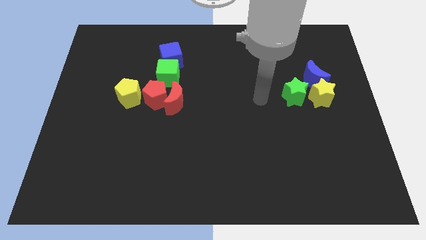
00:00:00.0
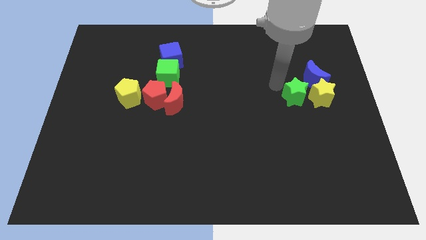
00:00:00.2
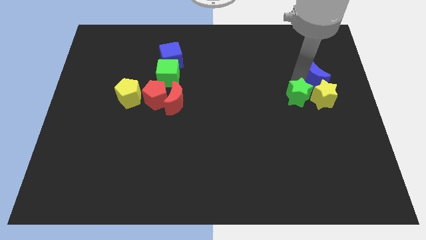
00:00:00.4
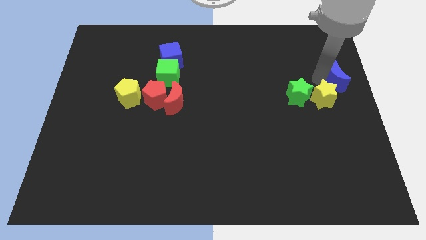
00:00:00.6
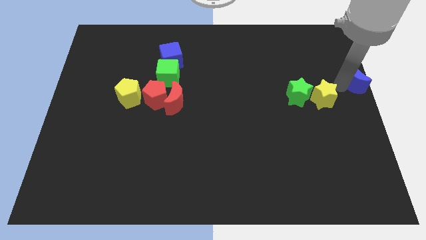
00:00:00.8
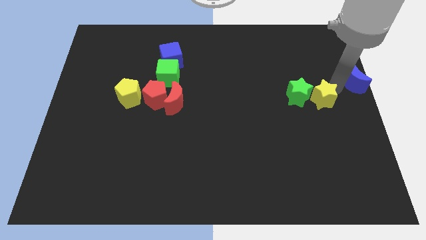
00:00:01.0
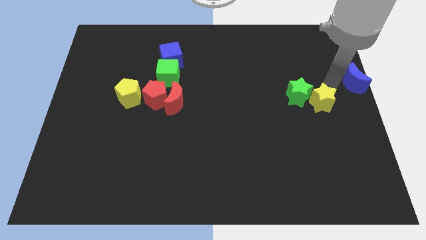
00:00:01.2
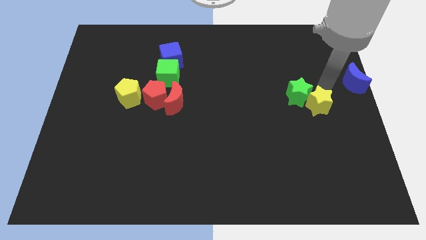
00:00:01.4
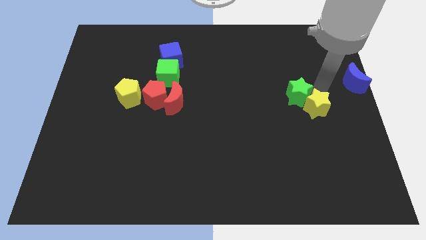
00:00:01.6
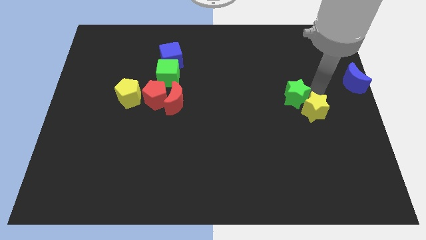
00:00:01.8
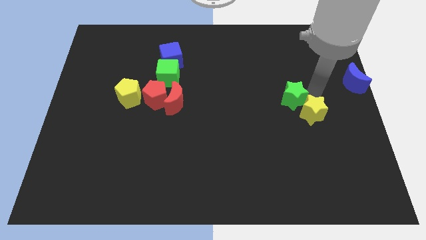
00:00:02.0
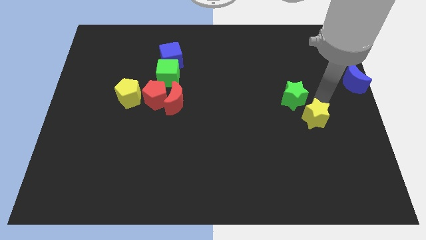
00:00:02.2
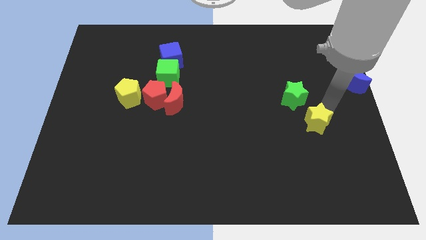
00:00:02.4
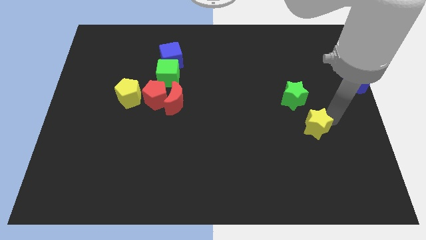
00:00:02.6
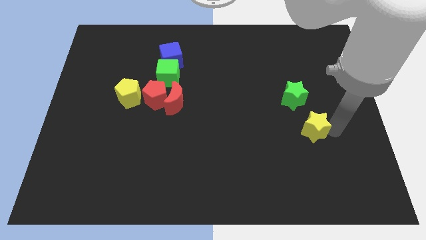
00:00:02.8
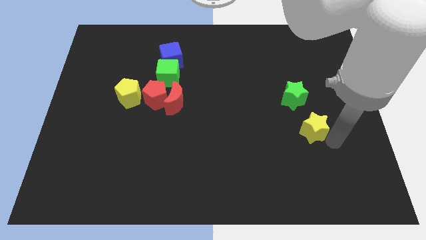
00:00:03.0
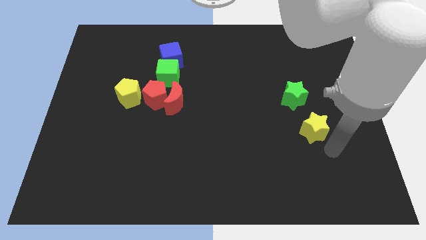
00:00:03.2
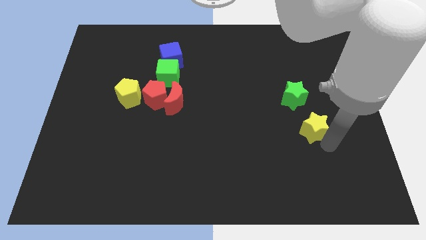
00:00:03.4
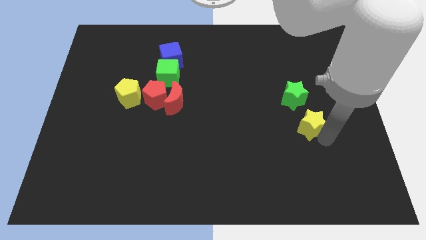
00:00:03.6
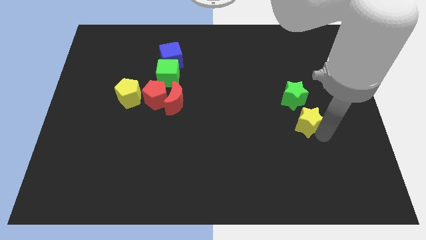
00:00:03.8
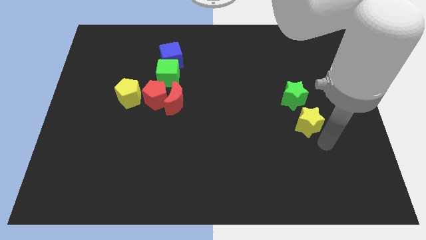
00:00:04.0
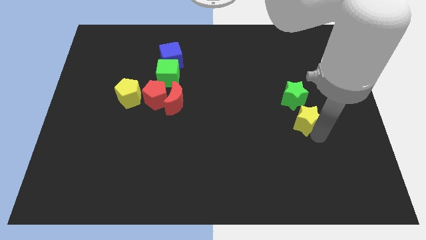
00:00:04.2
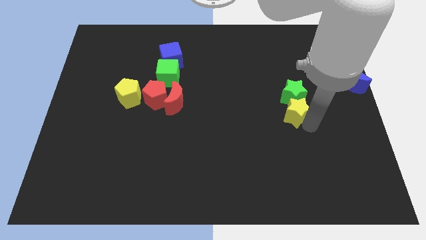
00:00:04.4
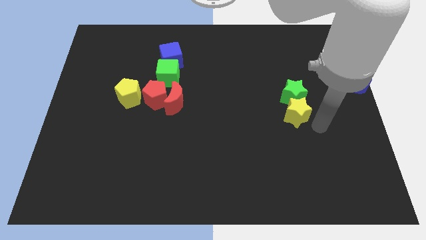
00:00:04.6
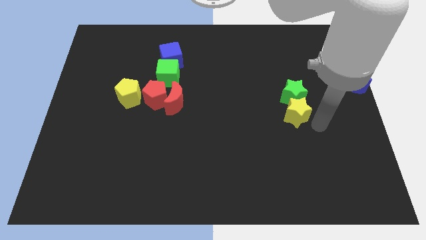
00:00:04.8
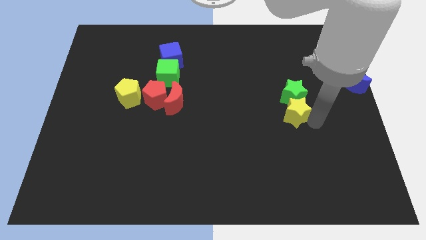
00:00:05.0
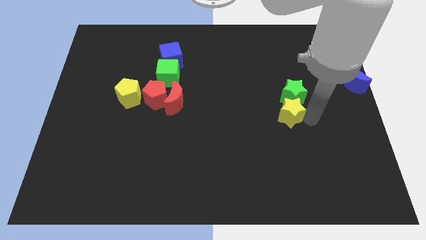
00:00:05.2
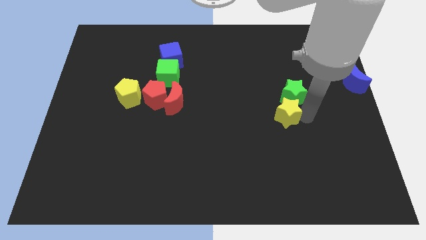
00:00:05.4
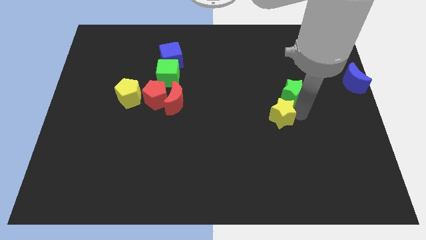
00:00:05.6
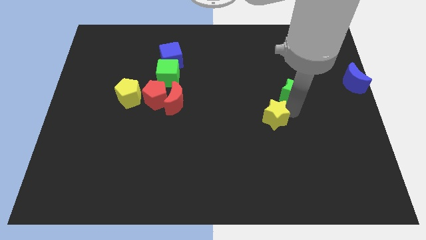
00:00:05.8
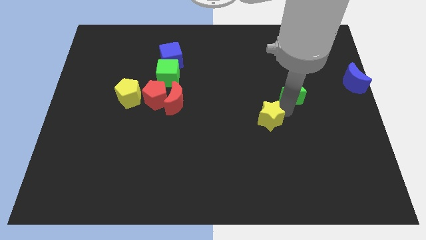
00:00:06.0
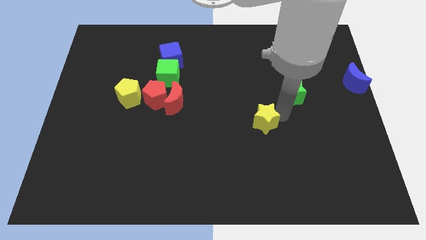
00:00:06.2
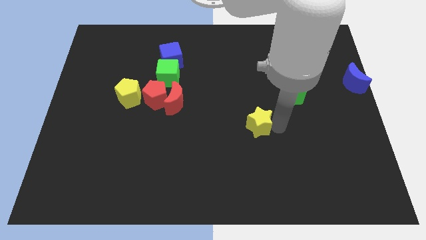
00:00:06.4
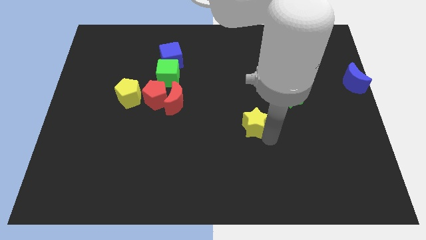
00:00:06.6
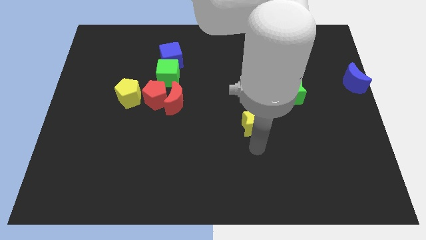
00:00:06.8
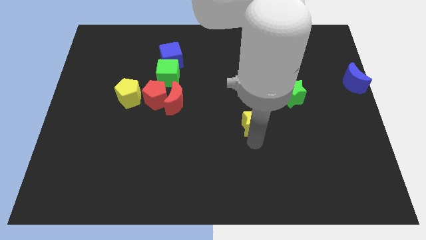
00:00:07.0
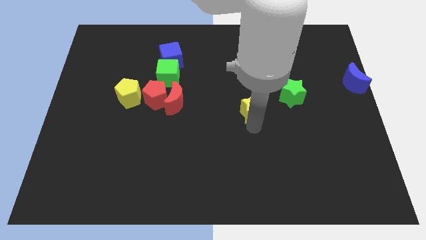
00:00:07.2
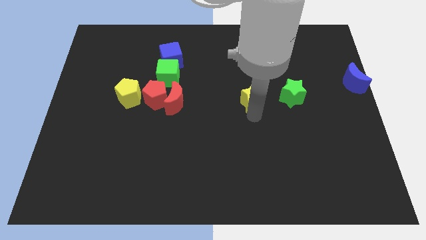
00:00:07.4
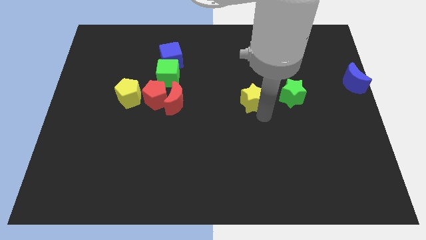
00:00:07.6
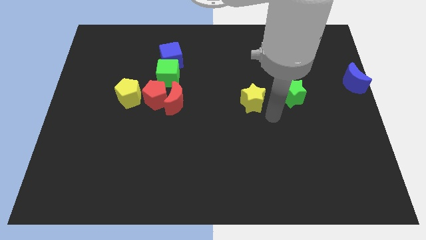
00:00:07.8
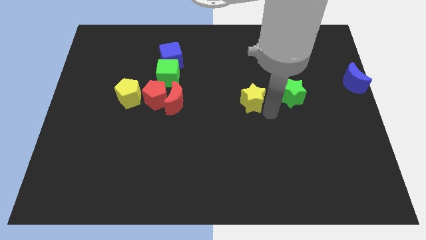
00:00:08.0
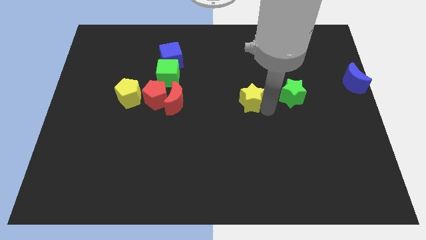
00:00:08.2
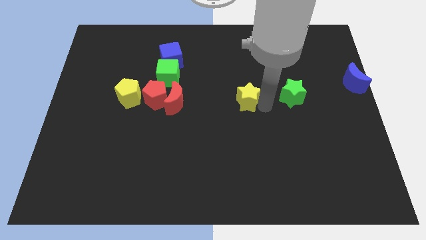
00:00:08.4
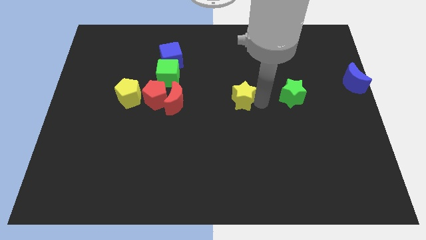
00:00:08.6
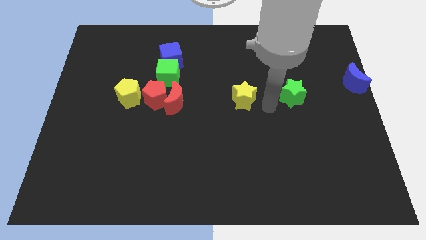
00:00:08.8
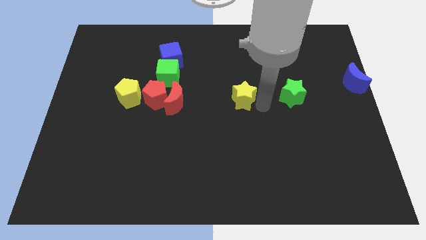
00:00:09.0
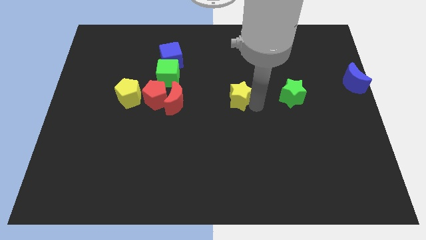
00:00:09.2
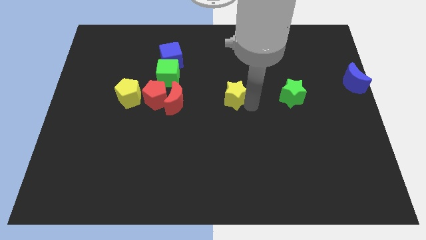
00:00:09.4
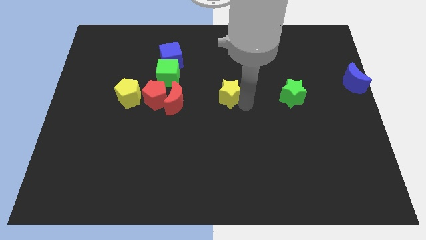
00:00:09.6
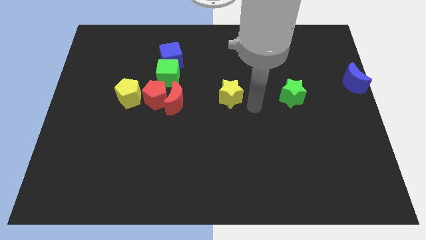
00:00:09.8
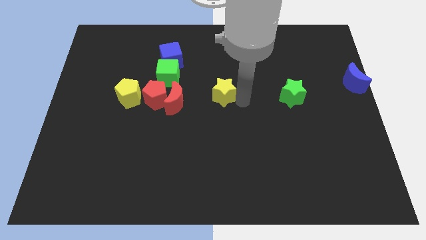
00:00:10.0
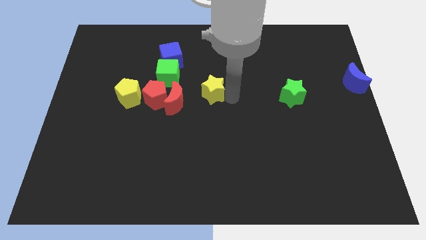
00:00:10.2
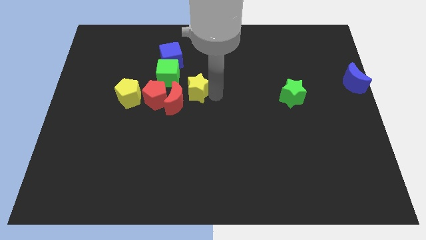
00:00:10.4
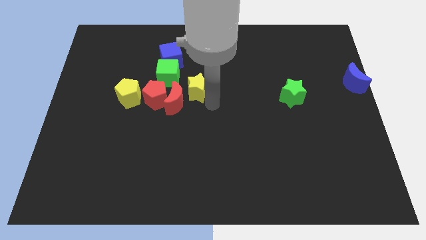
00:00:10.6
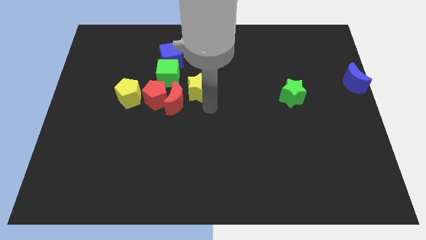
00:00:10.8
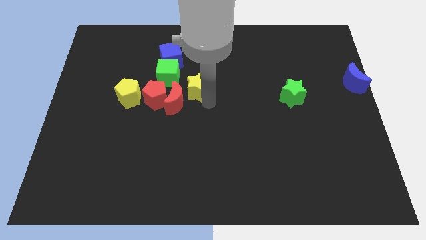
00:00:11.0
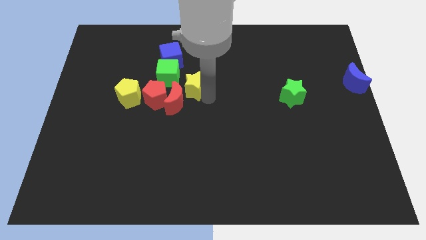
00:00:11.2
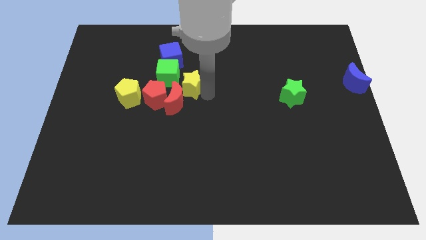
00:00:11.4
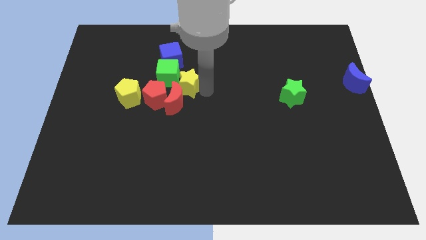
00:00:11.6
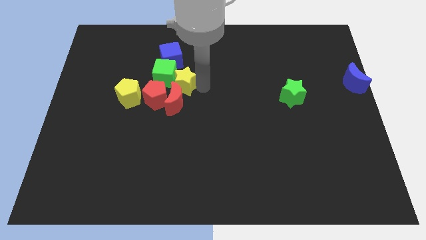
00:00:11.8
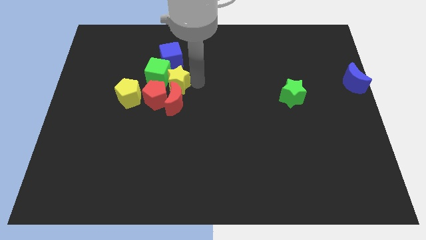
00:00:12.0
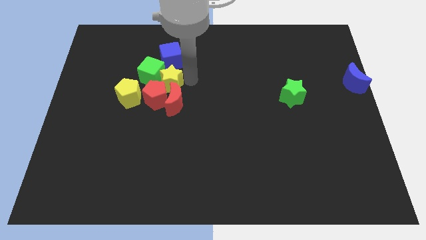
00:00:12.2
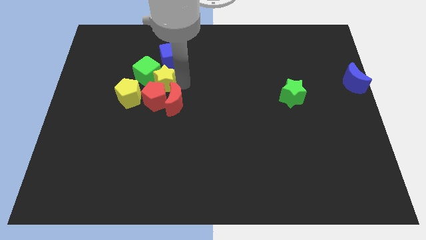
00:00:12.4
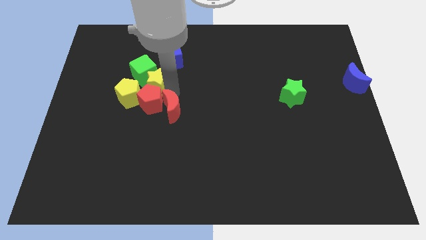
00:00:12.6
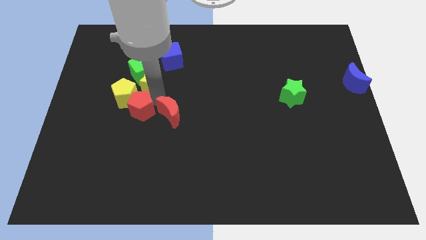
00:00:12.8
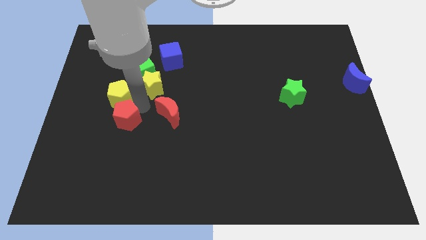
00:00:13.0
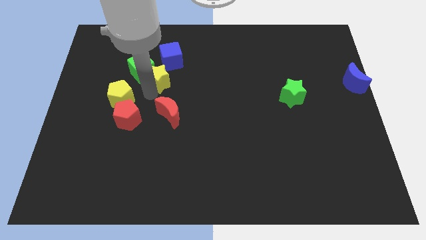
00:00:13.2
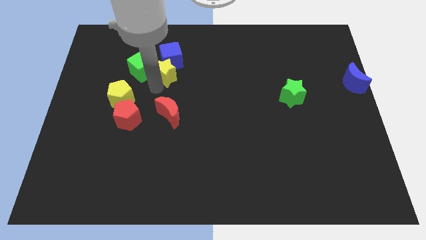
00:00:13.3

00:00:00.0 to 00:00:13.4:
put the yellow star close to the blue cube

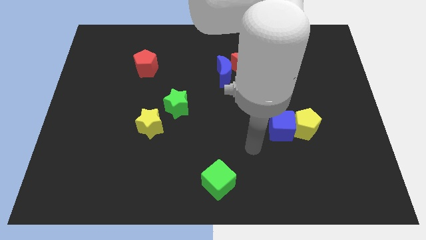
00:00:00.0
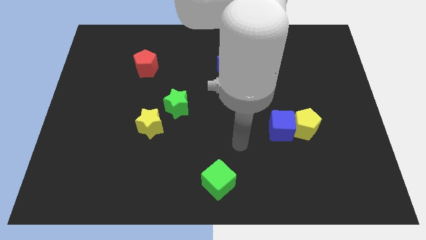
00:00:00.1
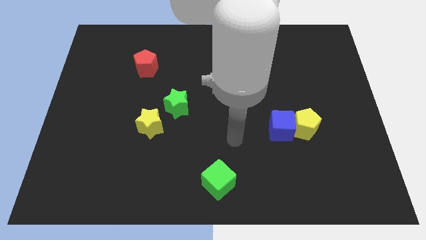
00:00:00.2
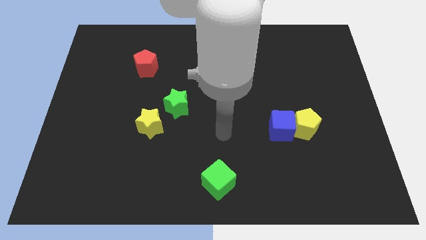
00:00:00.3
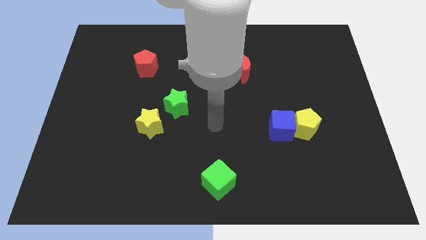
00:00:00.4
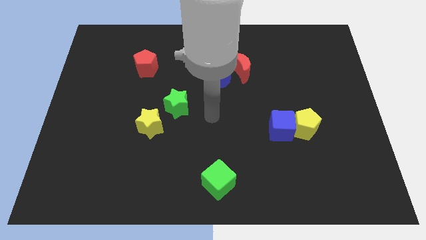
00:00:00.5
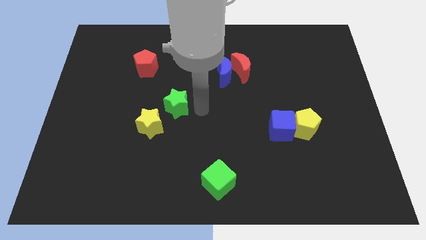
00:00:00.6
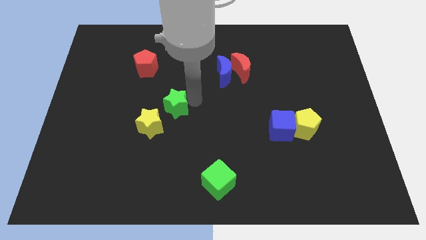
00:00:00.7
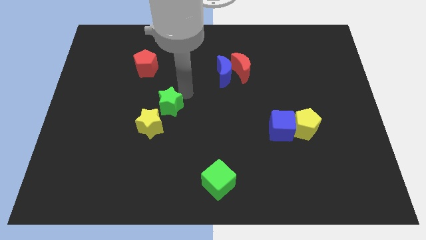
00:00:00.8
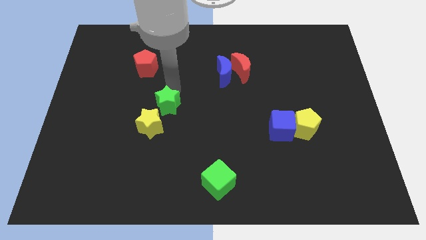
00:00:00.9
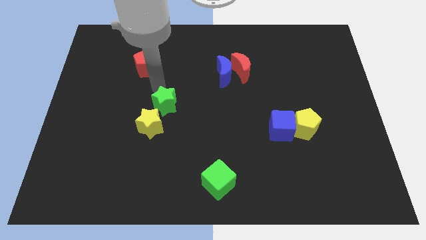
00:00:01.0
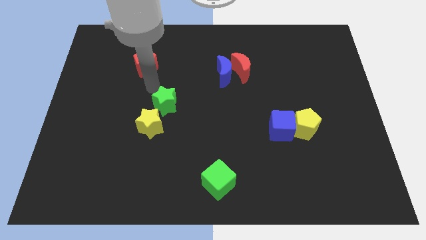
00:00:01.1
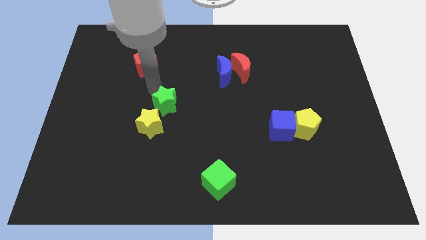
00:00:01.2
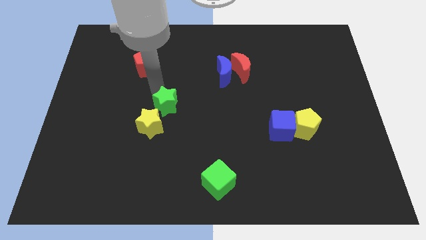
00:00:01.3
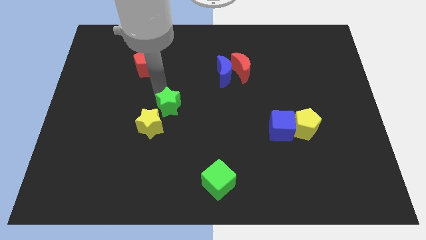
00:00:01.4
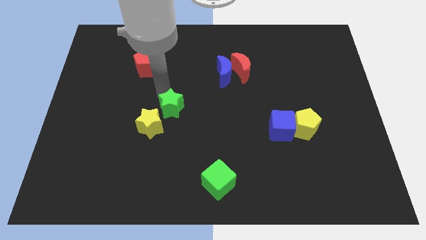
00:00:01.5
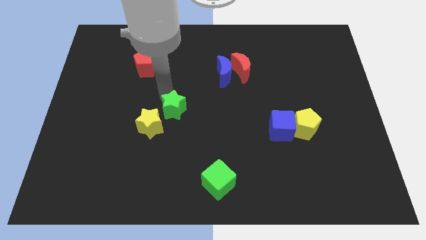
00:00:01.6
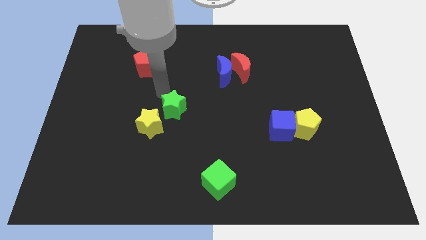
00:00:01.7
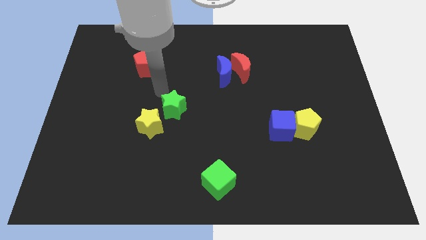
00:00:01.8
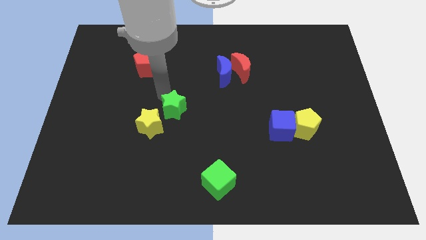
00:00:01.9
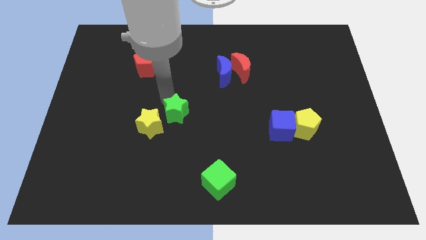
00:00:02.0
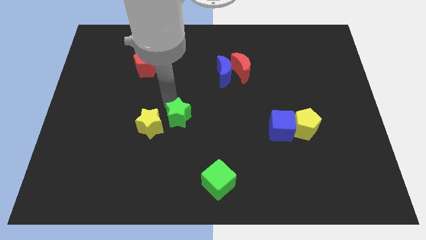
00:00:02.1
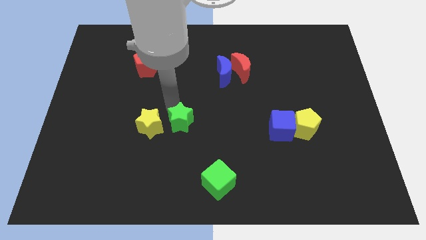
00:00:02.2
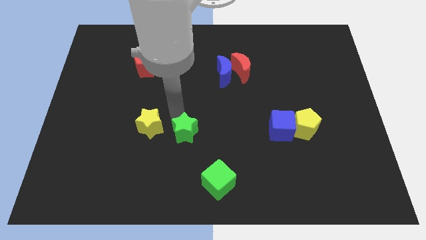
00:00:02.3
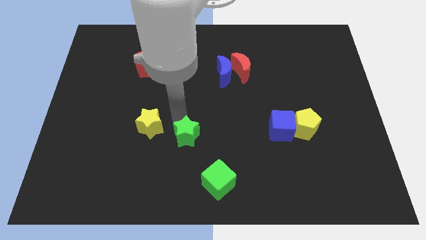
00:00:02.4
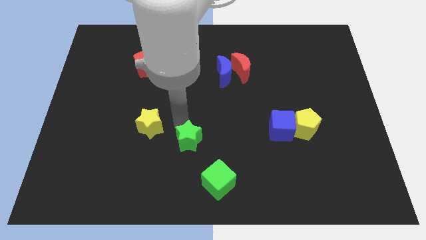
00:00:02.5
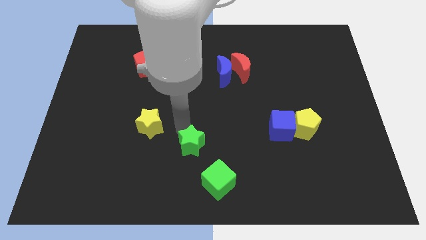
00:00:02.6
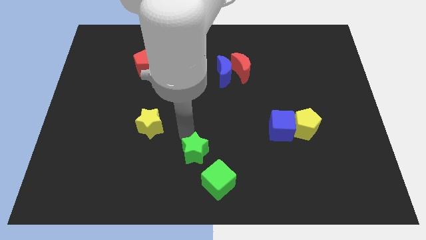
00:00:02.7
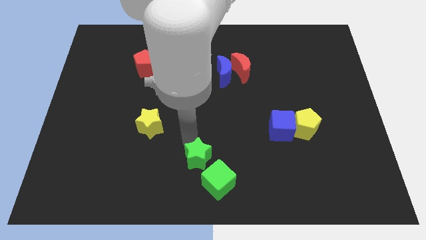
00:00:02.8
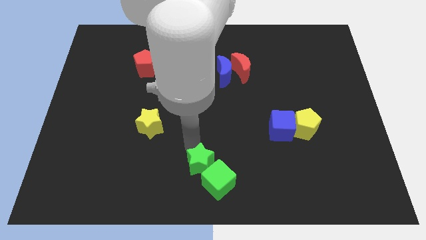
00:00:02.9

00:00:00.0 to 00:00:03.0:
slide the green star next to the green cube
